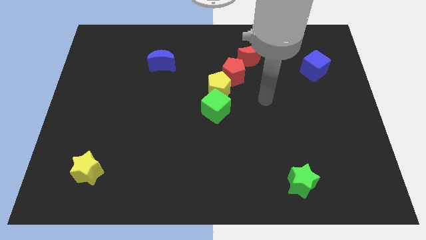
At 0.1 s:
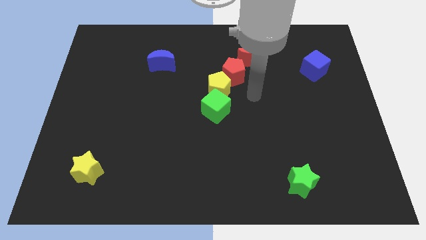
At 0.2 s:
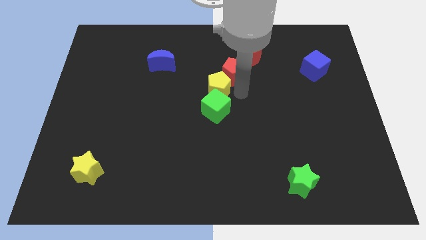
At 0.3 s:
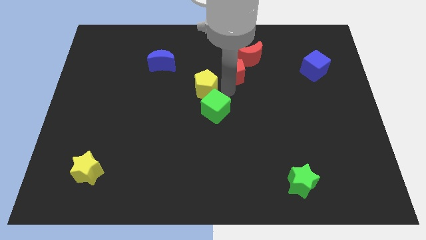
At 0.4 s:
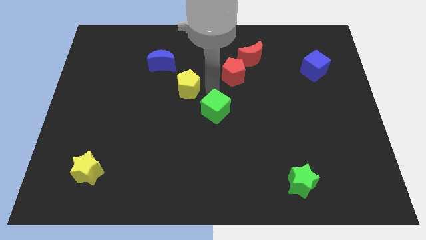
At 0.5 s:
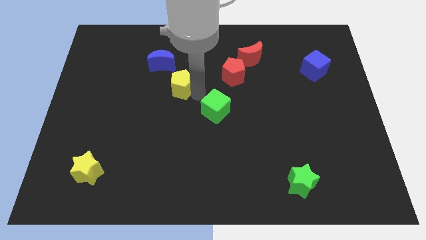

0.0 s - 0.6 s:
separate the green cube from the yellow pentagon

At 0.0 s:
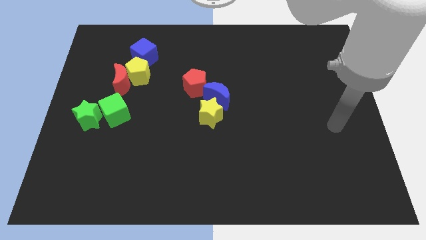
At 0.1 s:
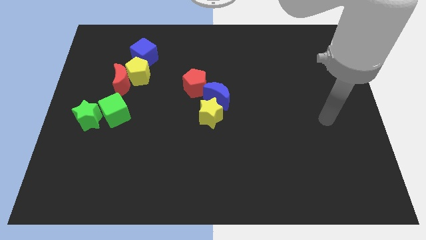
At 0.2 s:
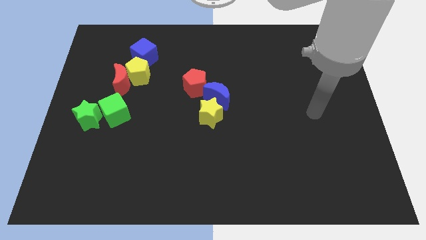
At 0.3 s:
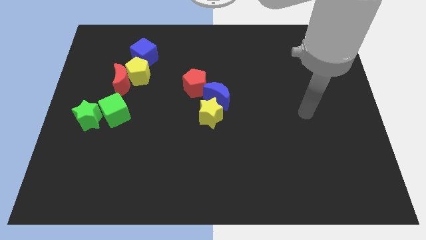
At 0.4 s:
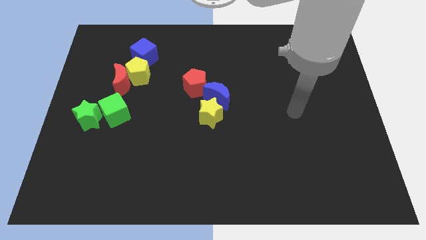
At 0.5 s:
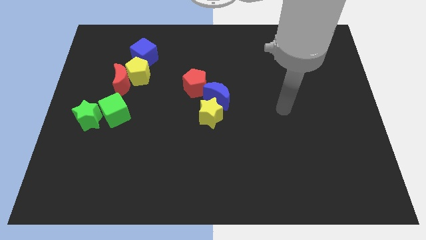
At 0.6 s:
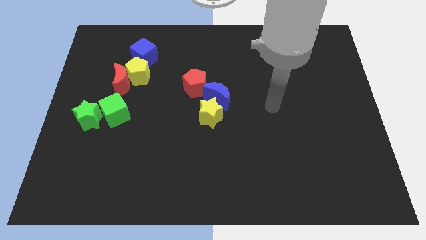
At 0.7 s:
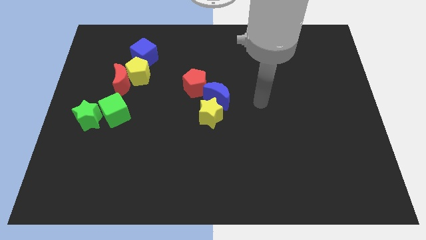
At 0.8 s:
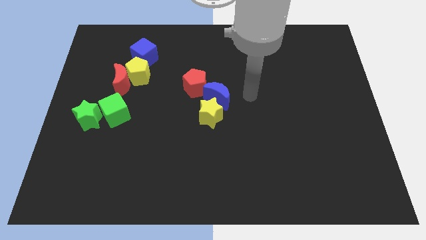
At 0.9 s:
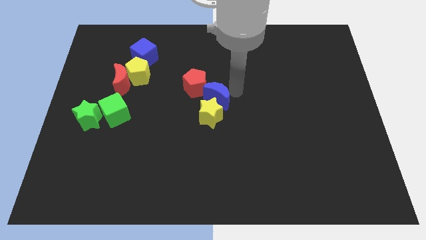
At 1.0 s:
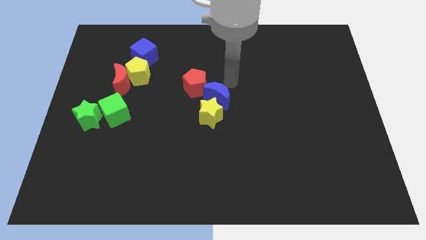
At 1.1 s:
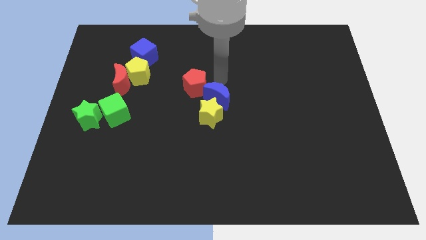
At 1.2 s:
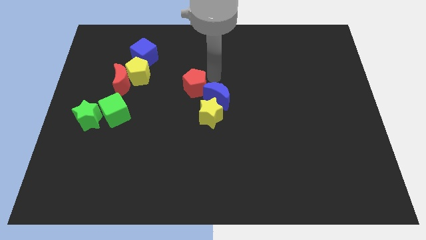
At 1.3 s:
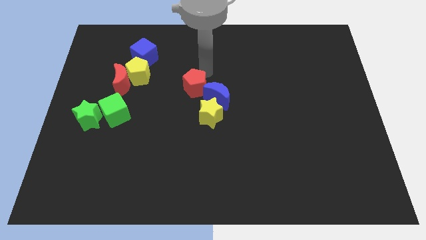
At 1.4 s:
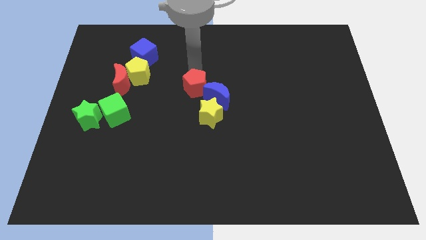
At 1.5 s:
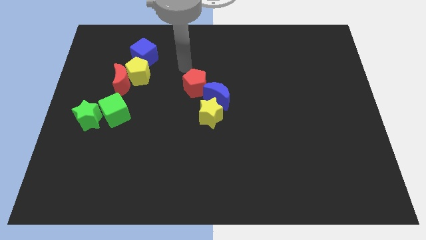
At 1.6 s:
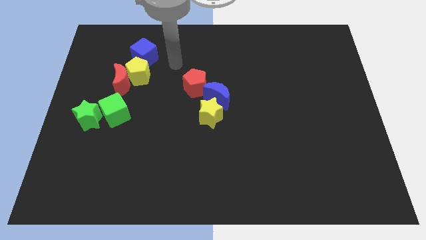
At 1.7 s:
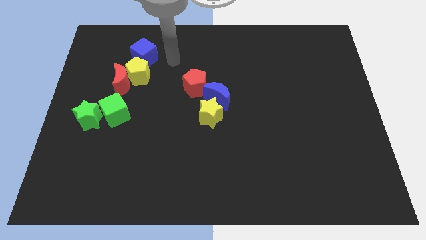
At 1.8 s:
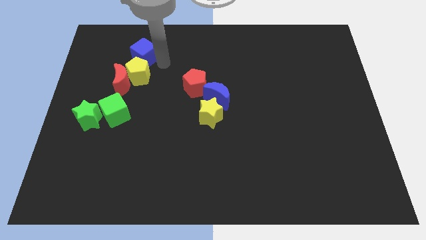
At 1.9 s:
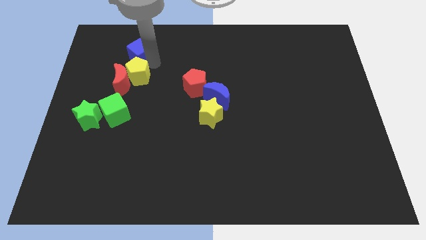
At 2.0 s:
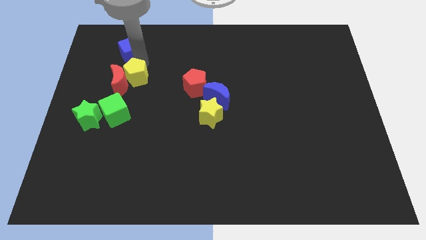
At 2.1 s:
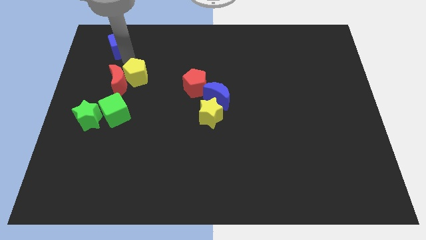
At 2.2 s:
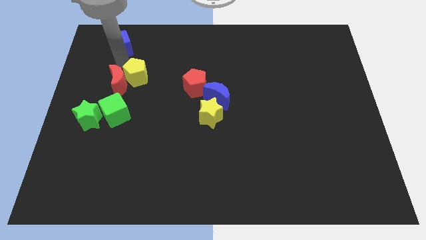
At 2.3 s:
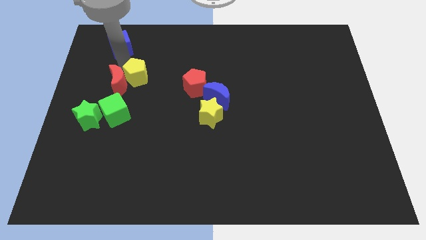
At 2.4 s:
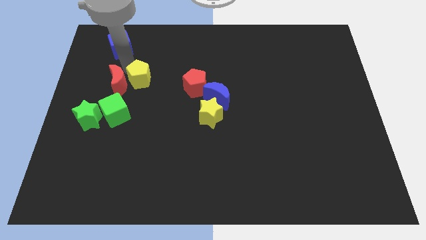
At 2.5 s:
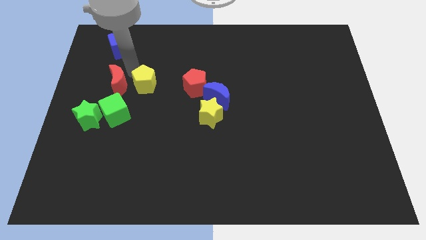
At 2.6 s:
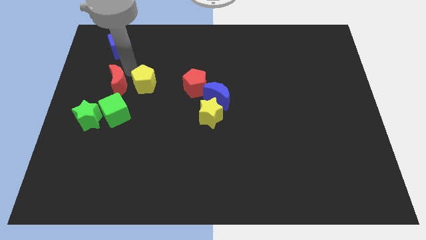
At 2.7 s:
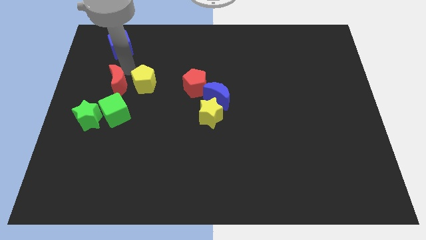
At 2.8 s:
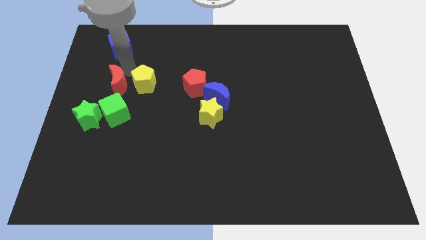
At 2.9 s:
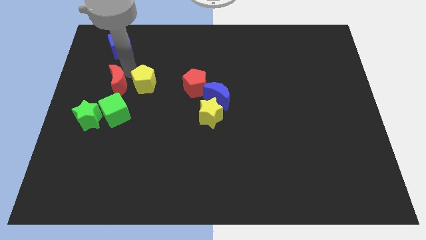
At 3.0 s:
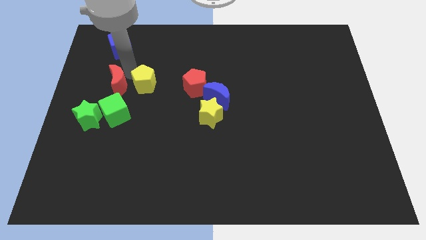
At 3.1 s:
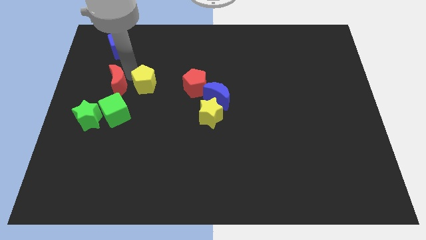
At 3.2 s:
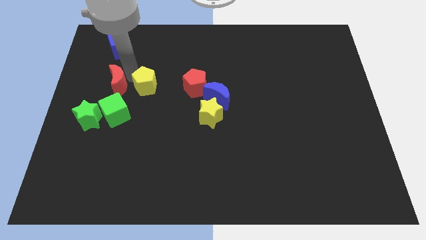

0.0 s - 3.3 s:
pull the yellow pentagon apart from the red moon and blue cube

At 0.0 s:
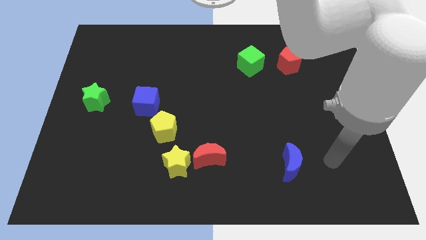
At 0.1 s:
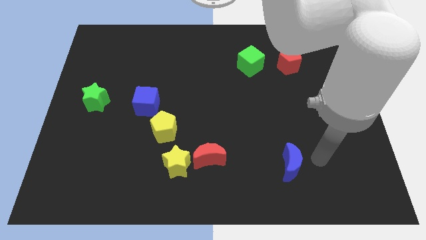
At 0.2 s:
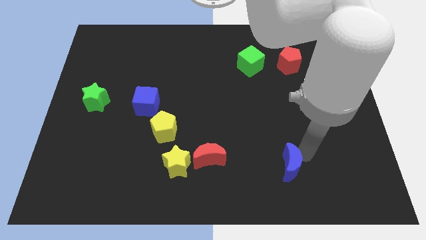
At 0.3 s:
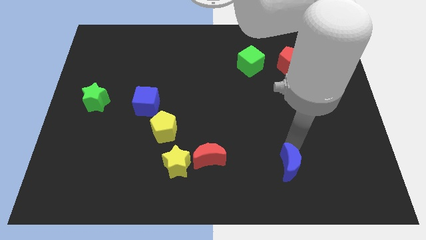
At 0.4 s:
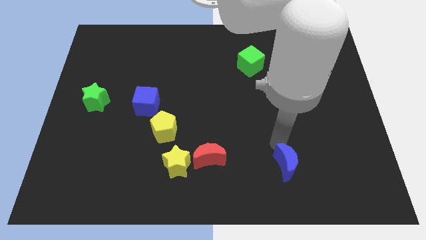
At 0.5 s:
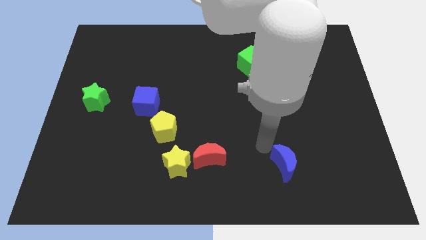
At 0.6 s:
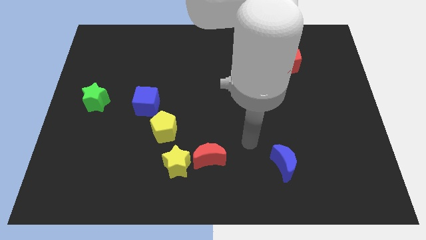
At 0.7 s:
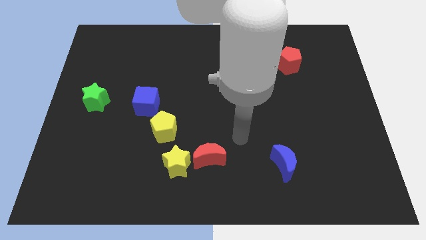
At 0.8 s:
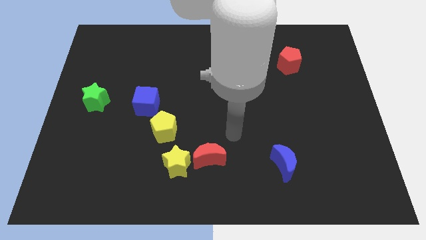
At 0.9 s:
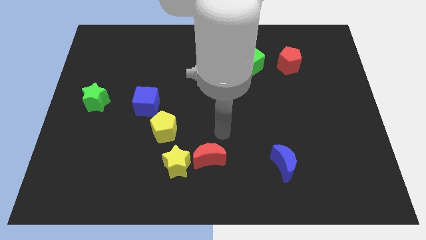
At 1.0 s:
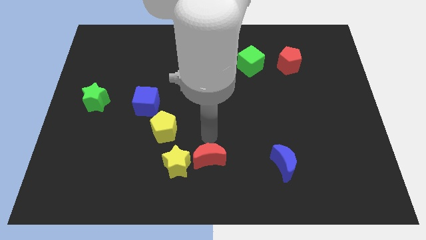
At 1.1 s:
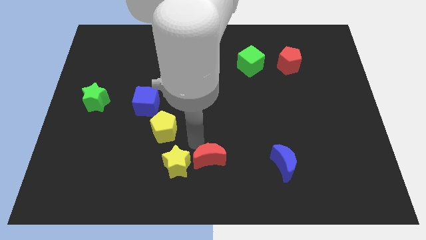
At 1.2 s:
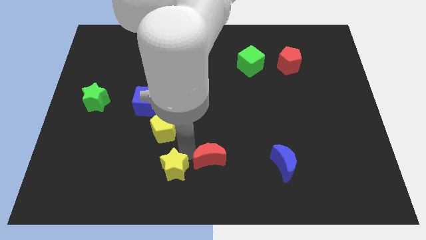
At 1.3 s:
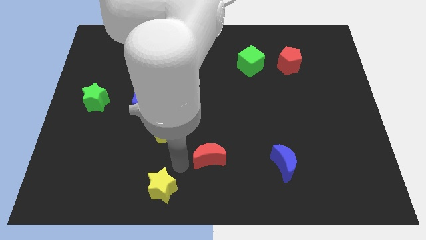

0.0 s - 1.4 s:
move the red moon away from the yellow star

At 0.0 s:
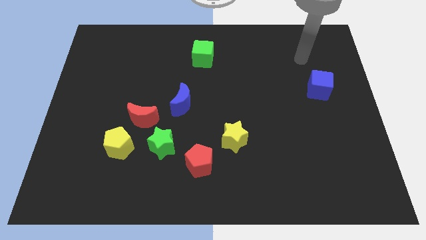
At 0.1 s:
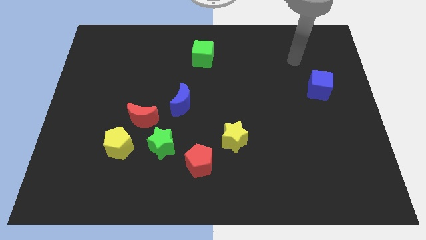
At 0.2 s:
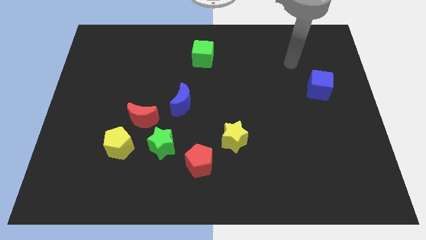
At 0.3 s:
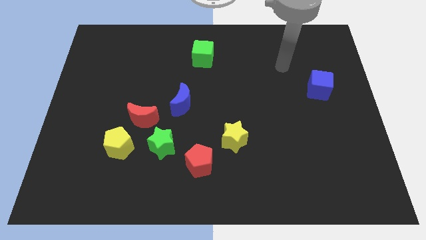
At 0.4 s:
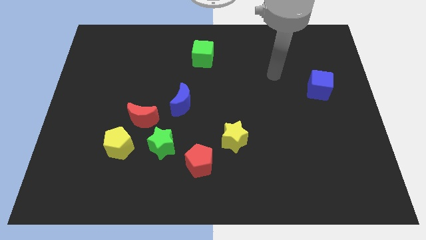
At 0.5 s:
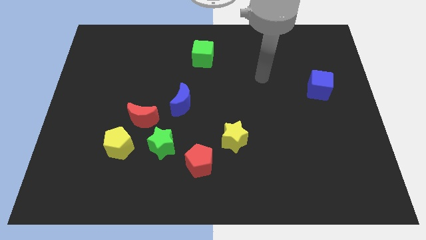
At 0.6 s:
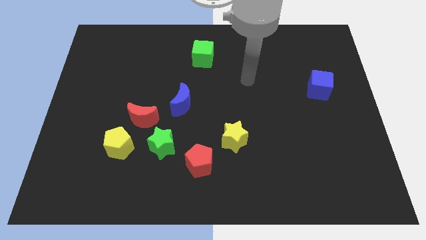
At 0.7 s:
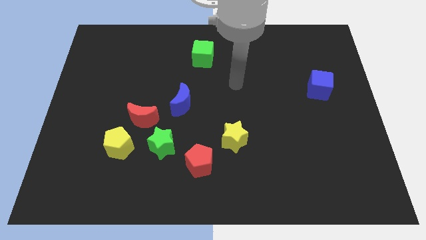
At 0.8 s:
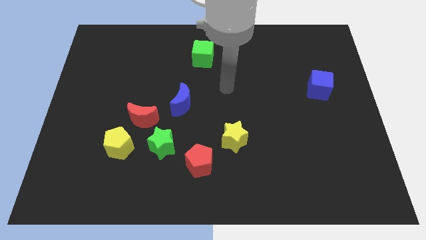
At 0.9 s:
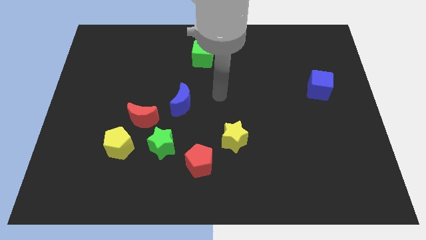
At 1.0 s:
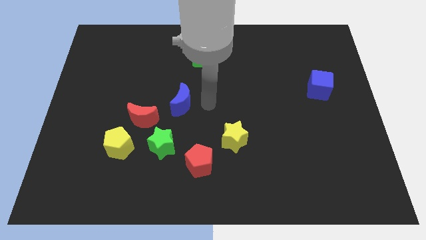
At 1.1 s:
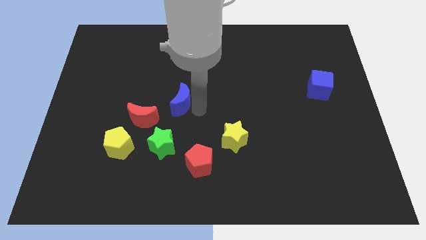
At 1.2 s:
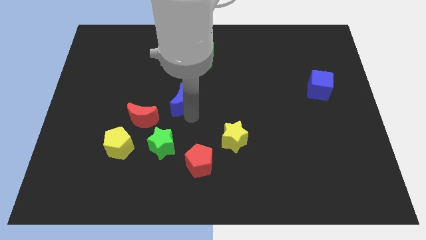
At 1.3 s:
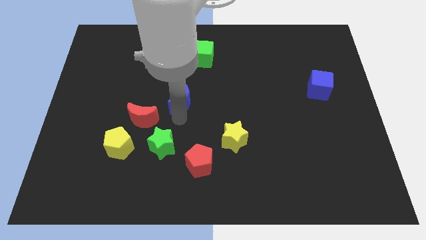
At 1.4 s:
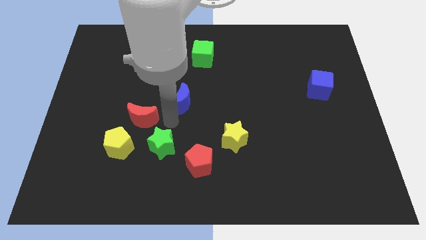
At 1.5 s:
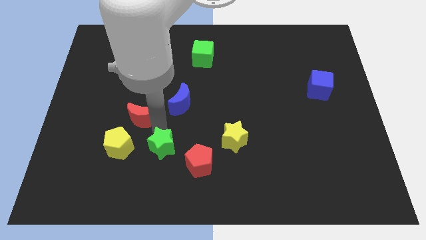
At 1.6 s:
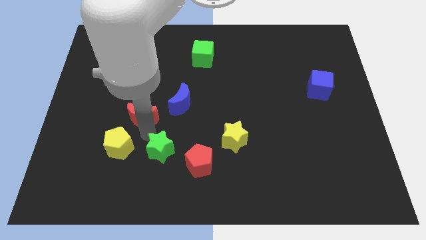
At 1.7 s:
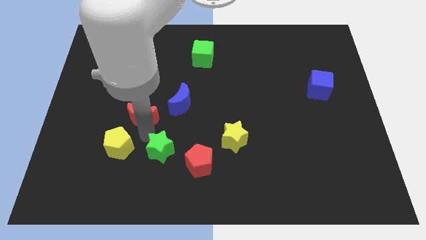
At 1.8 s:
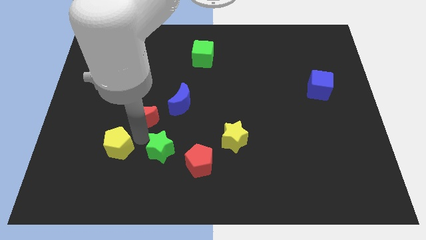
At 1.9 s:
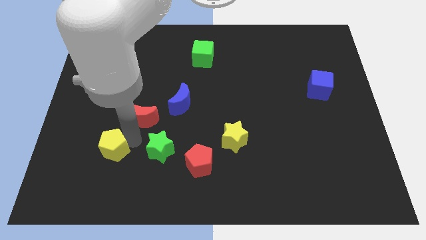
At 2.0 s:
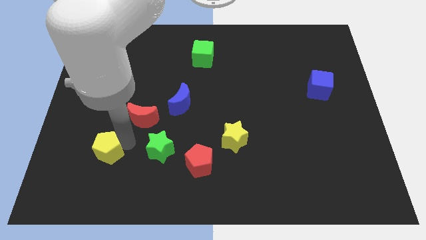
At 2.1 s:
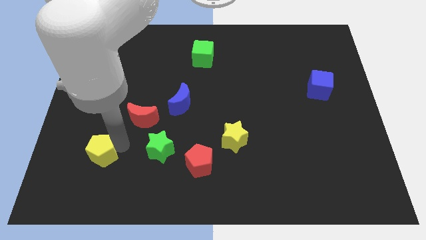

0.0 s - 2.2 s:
move the yellow pentagon away from the red moon and green star

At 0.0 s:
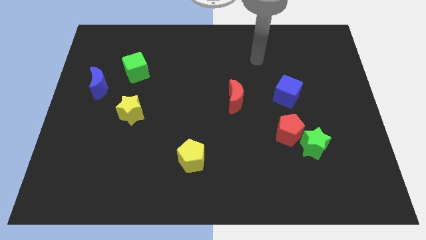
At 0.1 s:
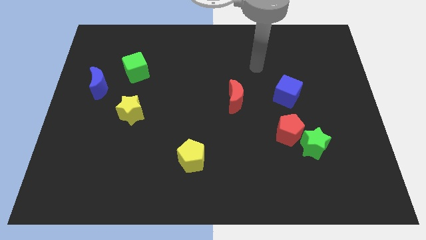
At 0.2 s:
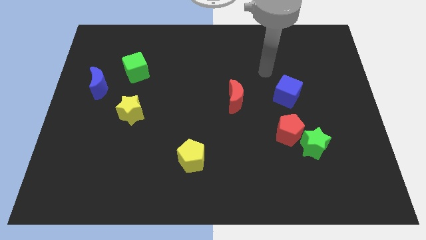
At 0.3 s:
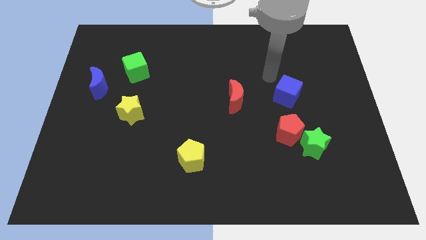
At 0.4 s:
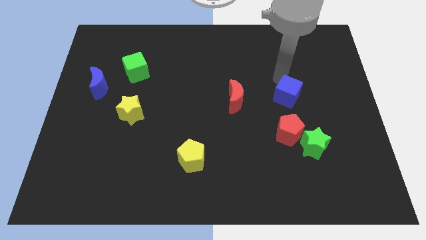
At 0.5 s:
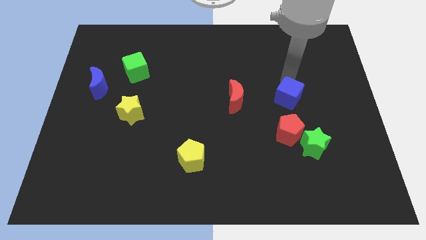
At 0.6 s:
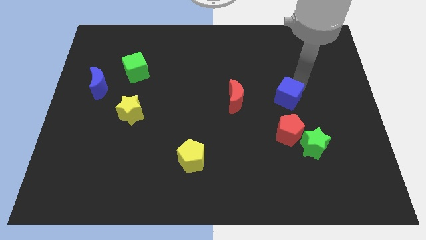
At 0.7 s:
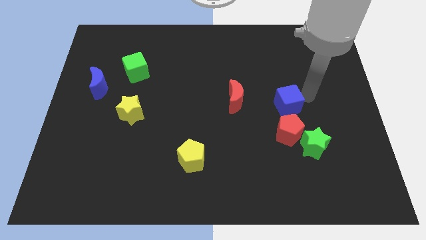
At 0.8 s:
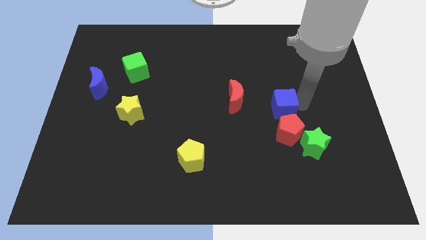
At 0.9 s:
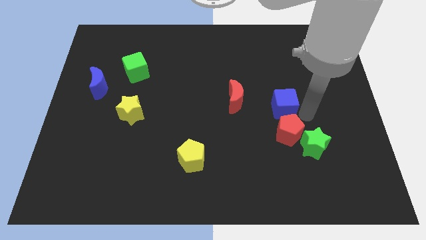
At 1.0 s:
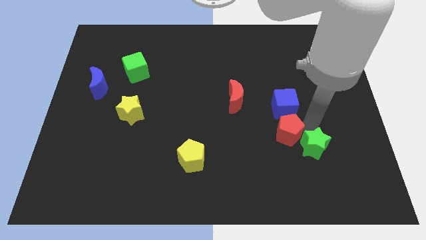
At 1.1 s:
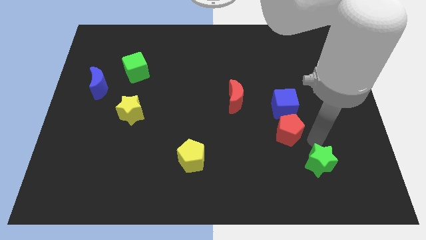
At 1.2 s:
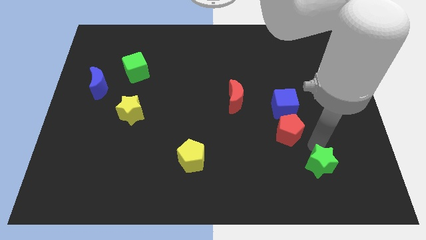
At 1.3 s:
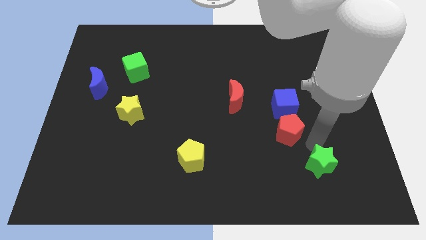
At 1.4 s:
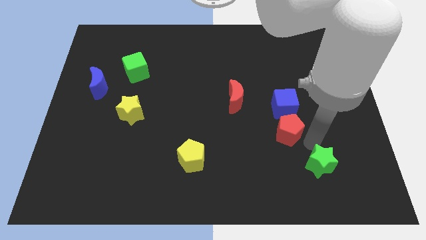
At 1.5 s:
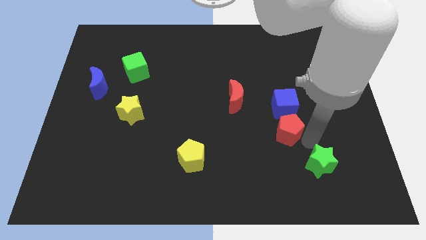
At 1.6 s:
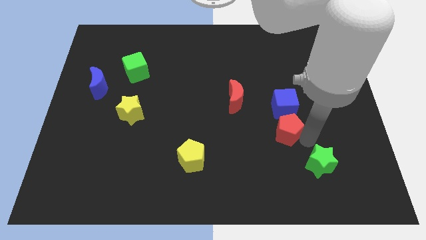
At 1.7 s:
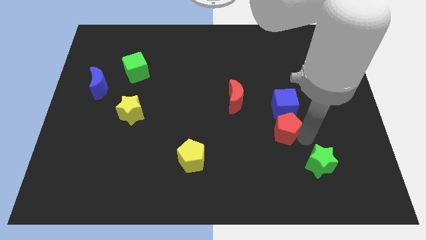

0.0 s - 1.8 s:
separate the red pentagon from the green star
